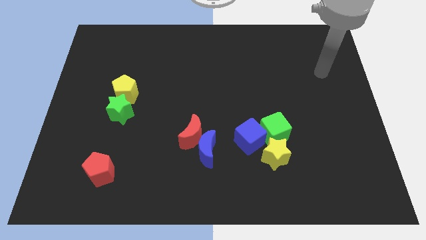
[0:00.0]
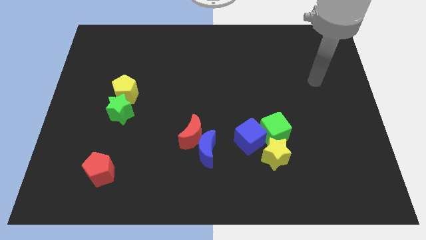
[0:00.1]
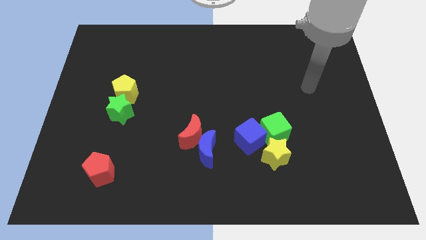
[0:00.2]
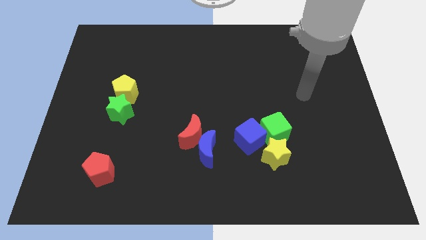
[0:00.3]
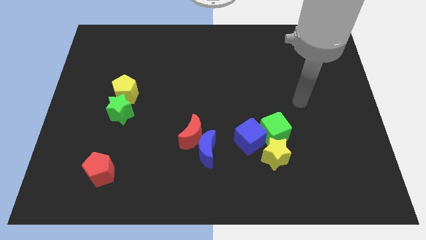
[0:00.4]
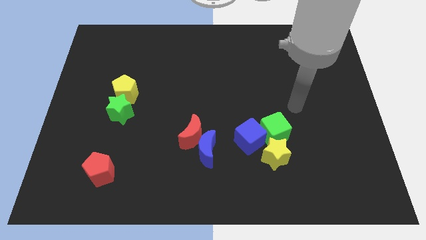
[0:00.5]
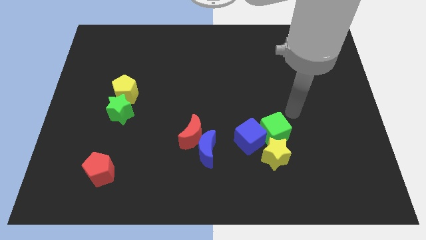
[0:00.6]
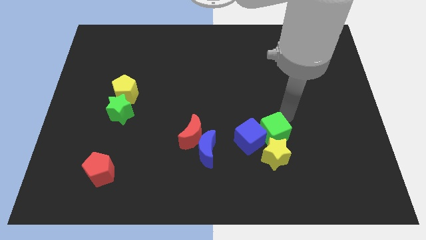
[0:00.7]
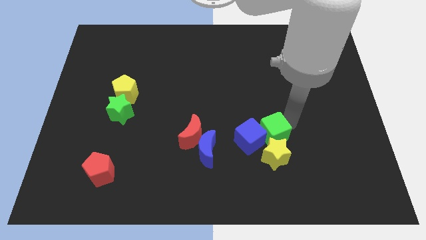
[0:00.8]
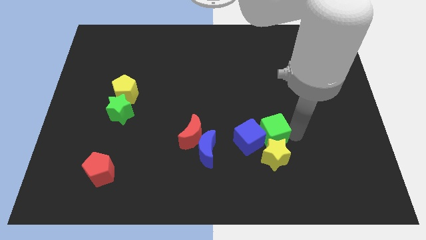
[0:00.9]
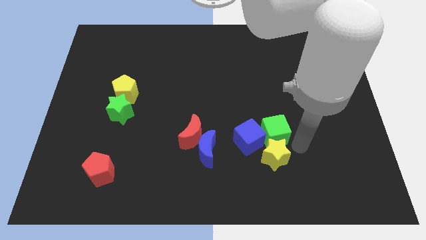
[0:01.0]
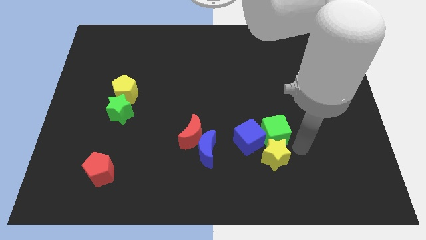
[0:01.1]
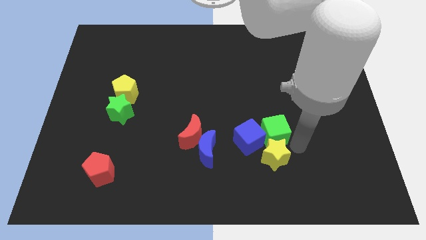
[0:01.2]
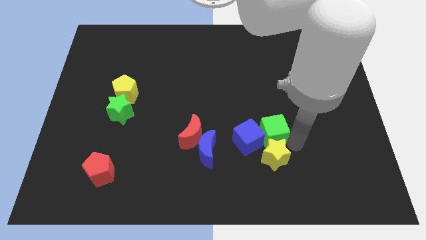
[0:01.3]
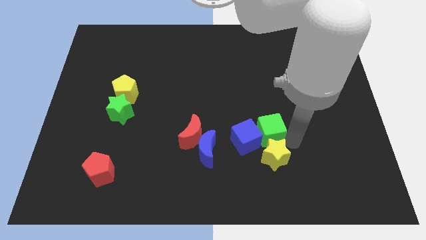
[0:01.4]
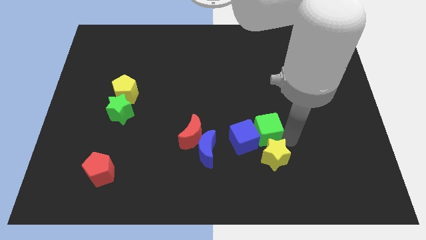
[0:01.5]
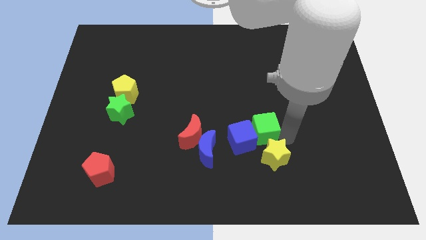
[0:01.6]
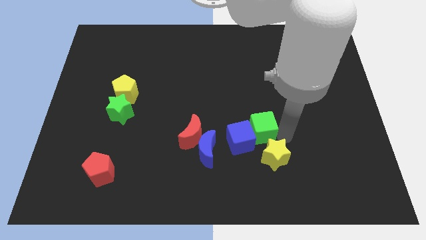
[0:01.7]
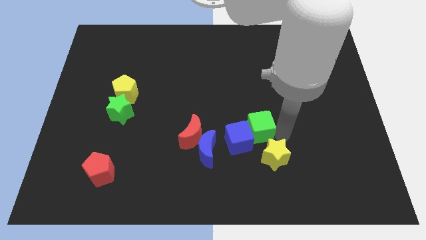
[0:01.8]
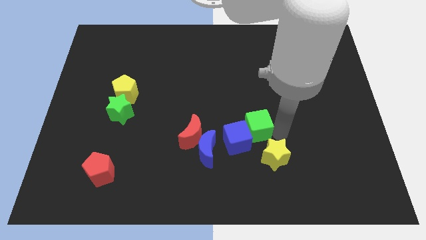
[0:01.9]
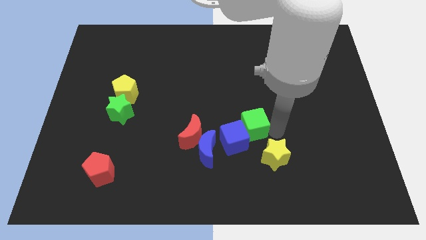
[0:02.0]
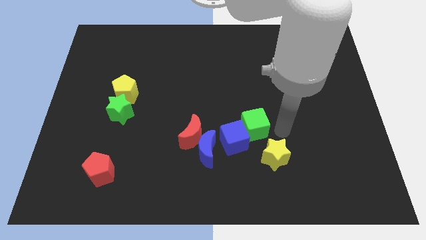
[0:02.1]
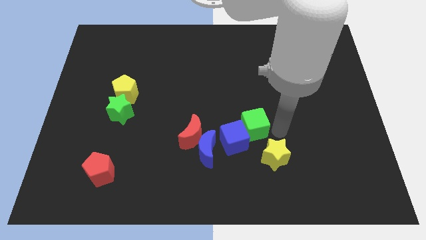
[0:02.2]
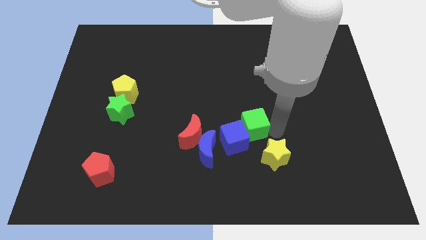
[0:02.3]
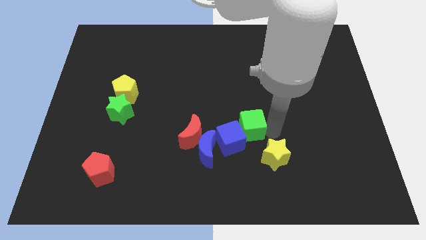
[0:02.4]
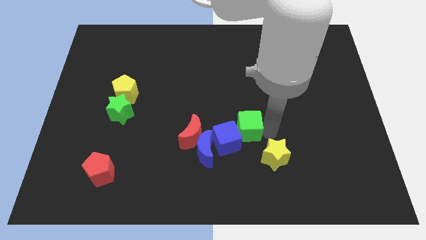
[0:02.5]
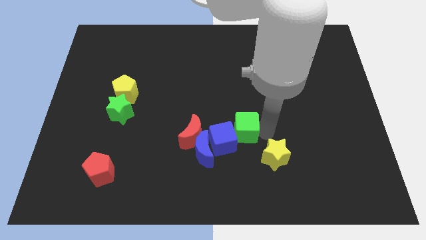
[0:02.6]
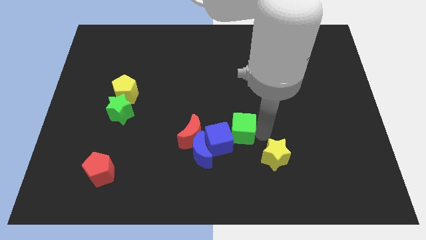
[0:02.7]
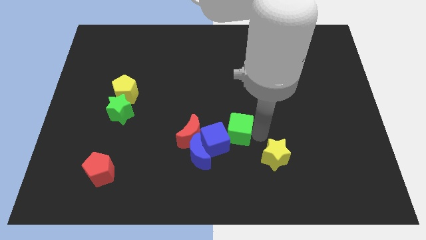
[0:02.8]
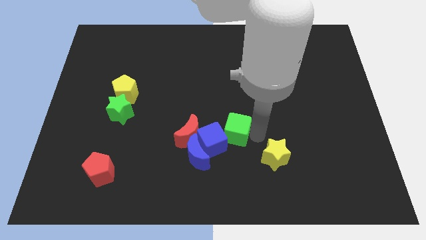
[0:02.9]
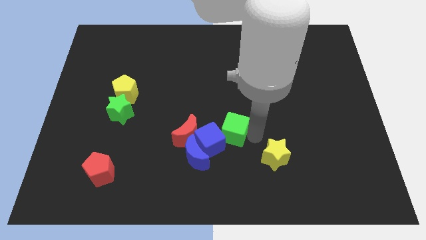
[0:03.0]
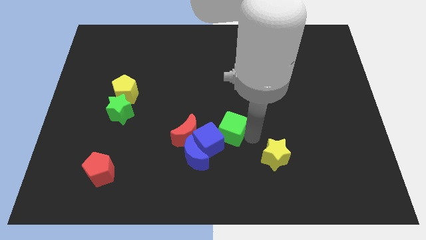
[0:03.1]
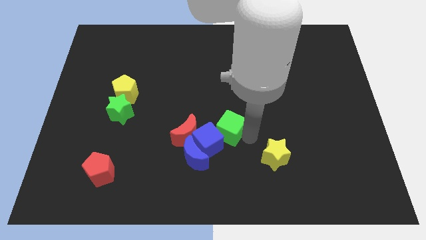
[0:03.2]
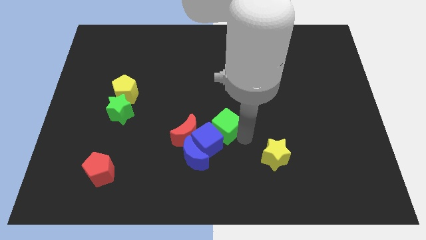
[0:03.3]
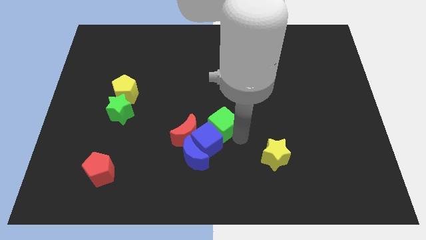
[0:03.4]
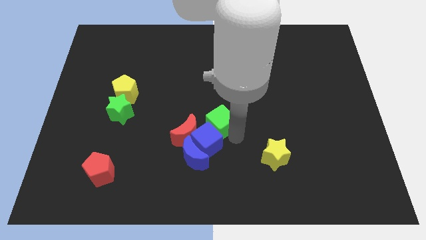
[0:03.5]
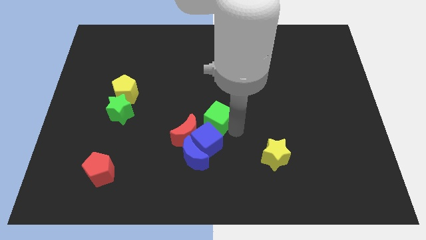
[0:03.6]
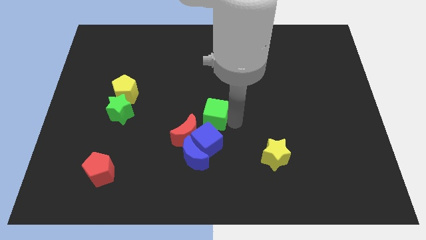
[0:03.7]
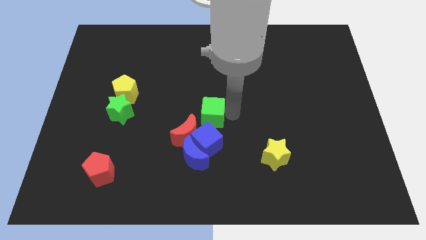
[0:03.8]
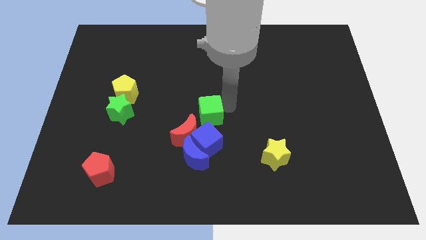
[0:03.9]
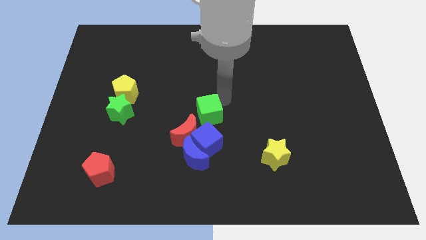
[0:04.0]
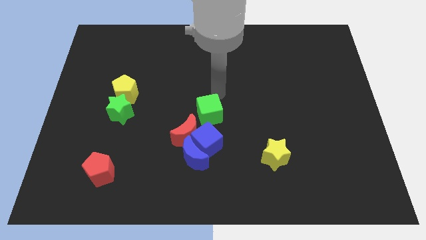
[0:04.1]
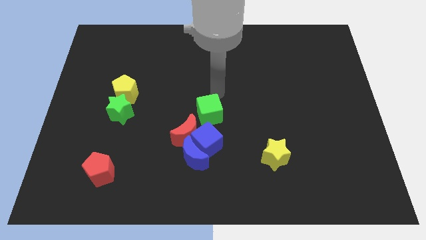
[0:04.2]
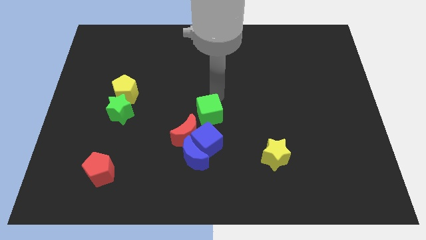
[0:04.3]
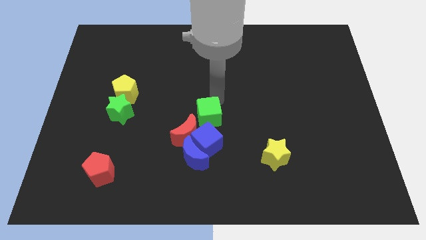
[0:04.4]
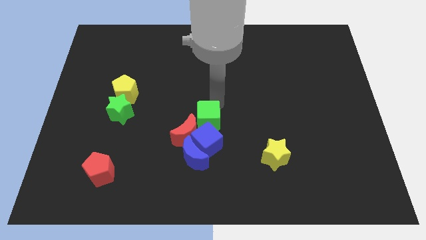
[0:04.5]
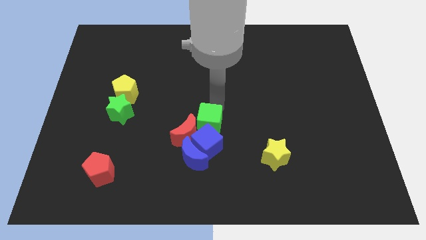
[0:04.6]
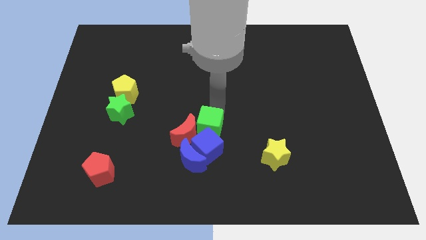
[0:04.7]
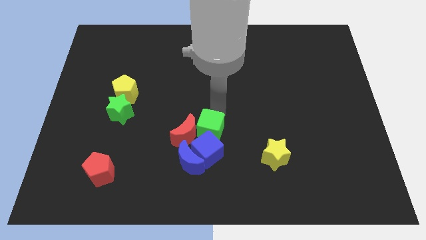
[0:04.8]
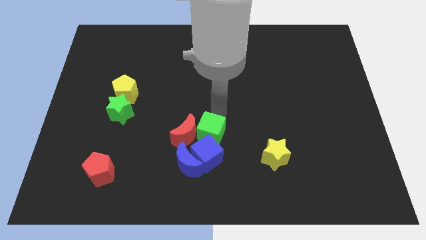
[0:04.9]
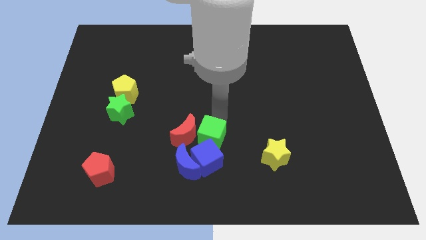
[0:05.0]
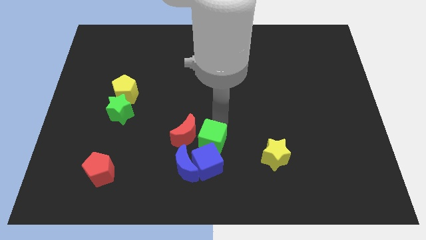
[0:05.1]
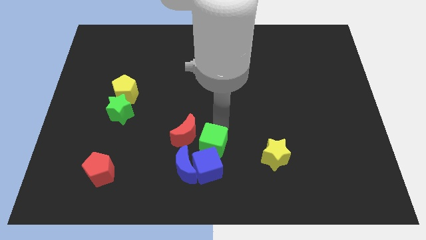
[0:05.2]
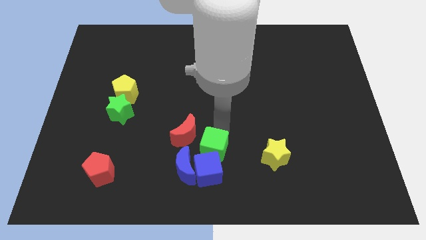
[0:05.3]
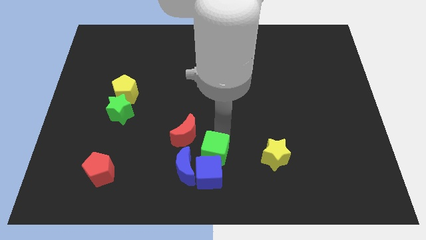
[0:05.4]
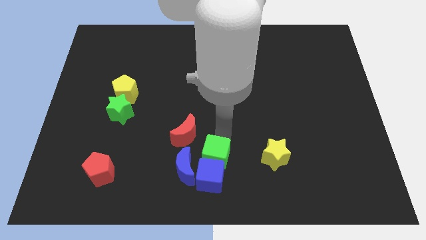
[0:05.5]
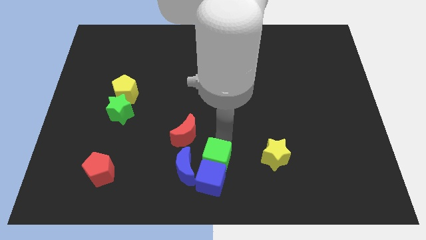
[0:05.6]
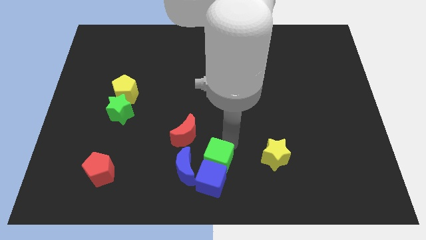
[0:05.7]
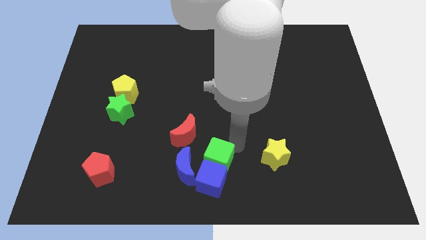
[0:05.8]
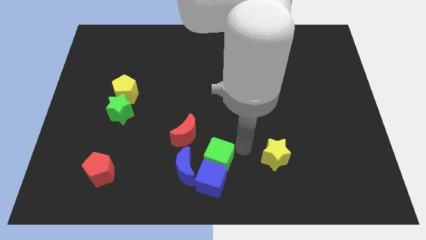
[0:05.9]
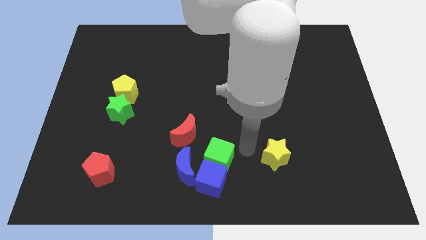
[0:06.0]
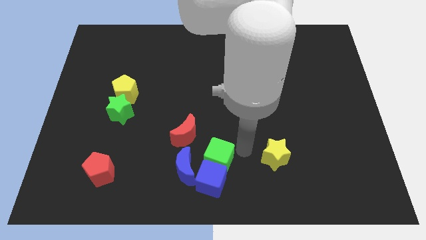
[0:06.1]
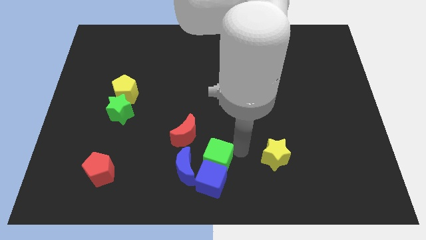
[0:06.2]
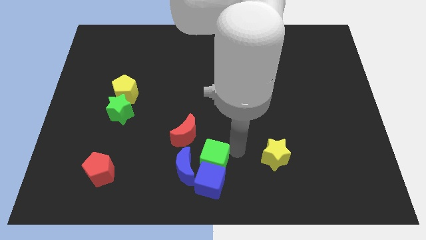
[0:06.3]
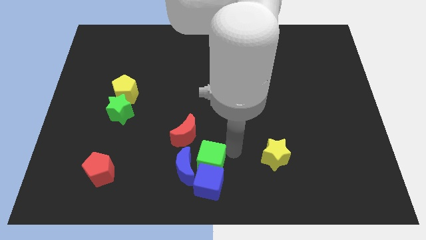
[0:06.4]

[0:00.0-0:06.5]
put the green cube towards the blue moon

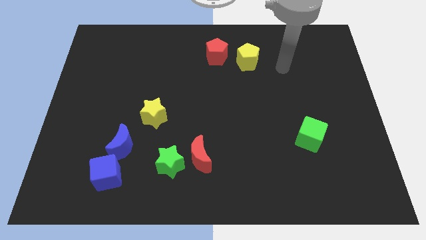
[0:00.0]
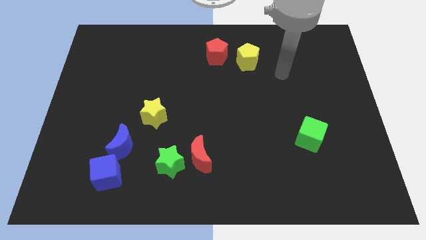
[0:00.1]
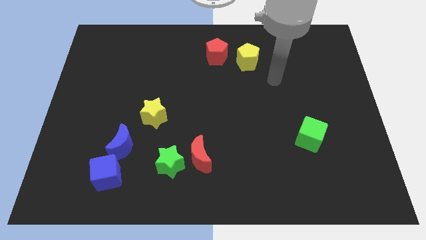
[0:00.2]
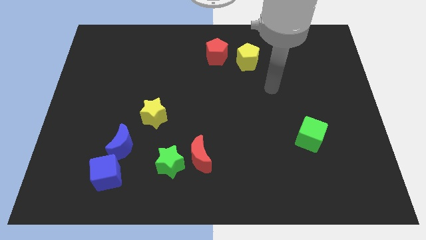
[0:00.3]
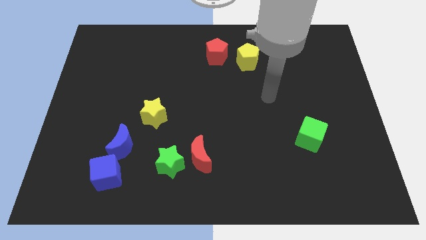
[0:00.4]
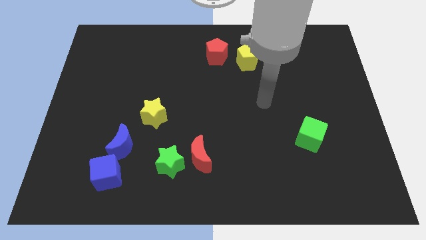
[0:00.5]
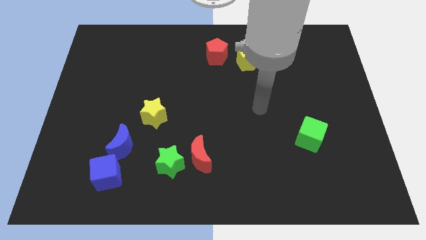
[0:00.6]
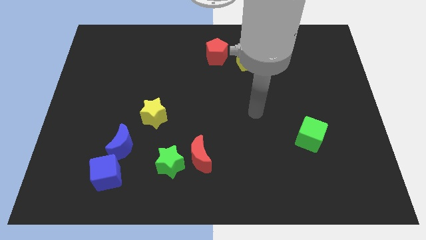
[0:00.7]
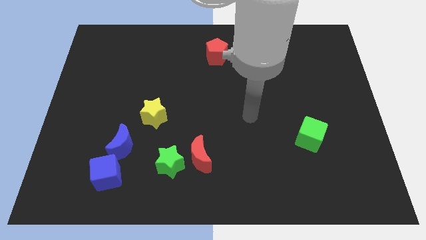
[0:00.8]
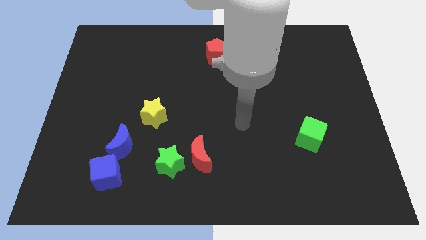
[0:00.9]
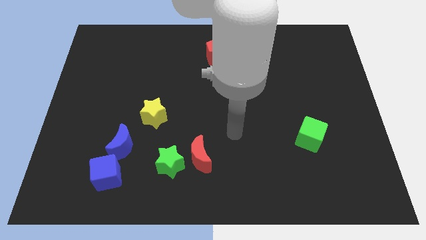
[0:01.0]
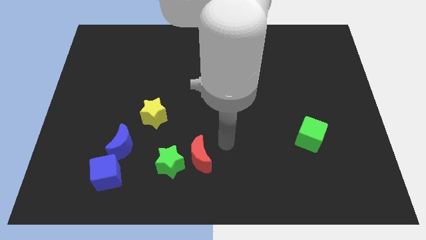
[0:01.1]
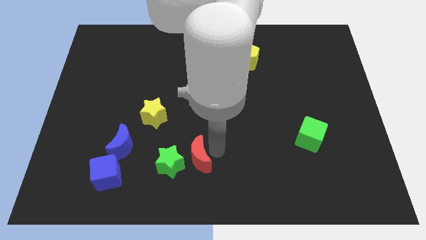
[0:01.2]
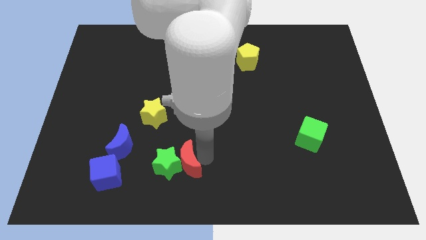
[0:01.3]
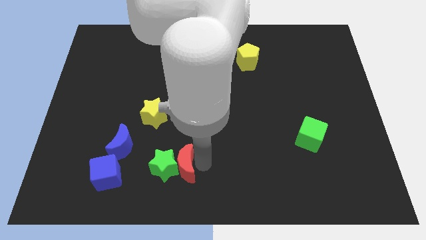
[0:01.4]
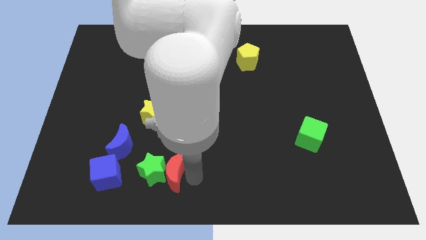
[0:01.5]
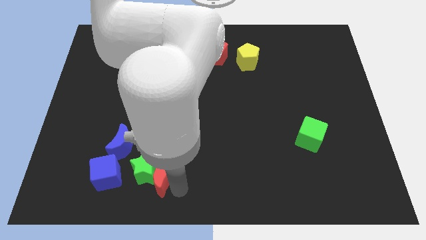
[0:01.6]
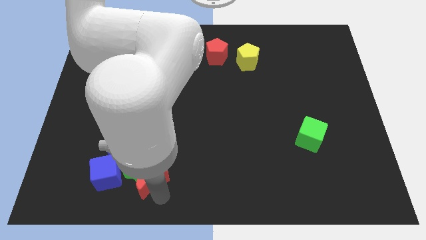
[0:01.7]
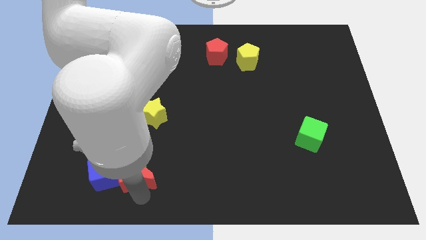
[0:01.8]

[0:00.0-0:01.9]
push the green star next to the blue moon
